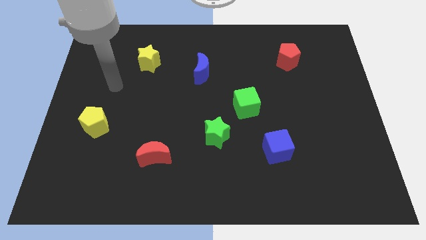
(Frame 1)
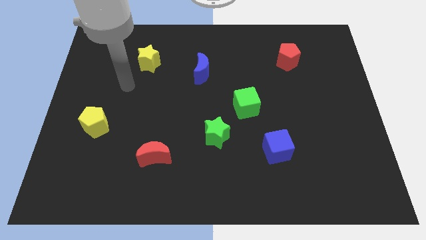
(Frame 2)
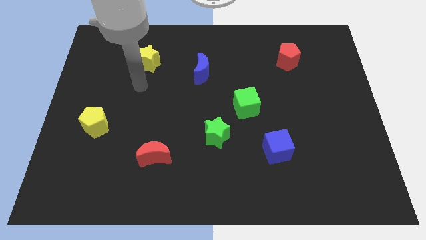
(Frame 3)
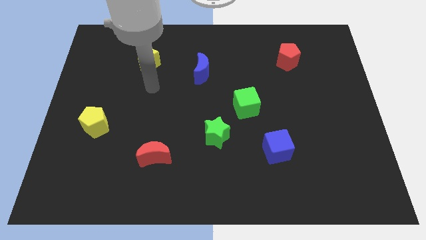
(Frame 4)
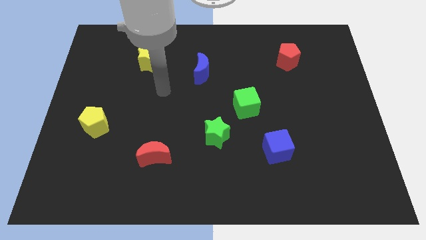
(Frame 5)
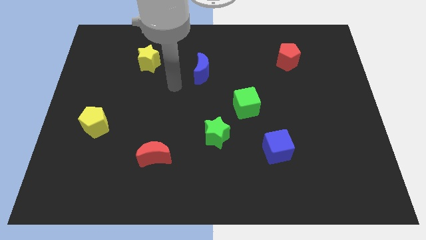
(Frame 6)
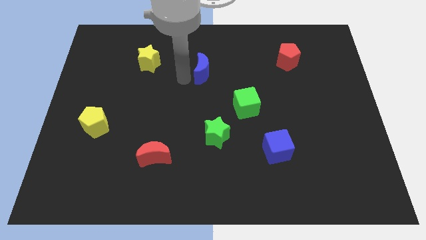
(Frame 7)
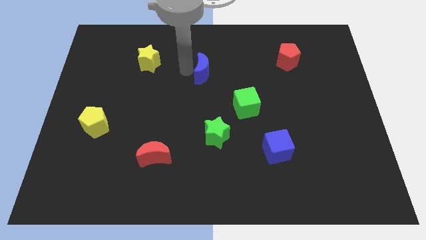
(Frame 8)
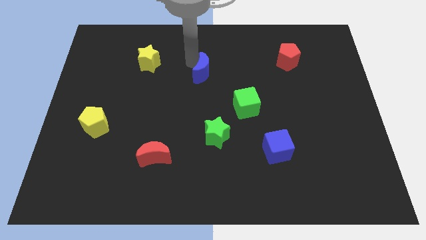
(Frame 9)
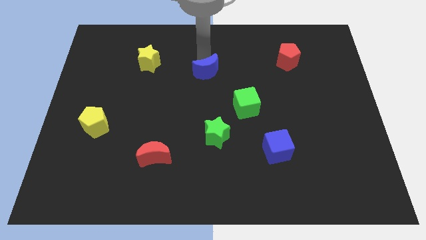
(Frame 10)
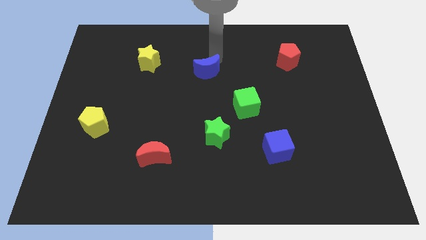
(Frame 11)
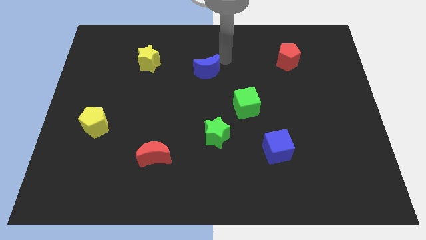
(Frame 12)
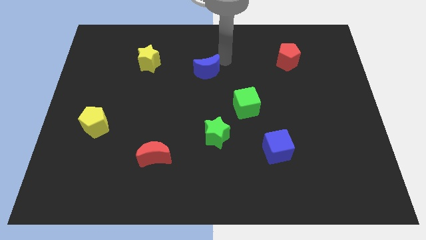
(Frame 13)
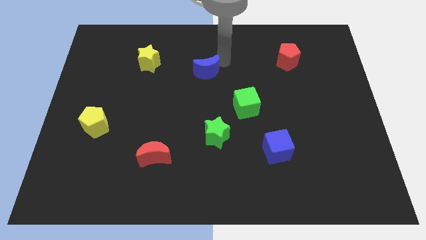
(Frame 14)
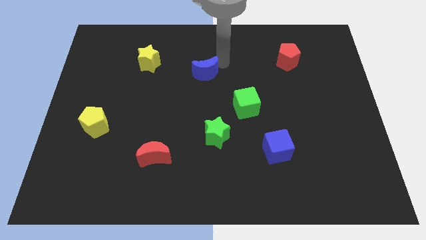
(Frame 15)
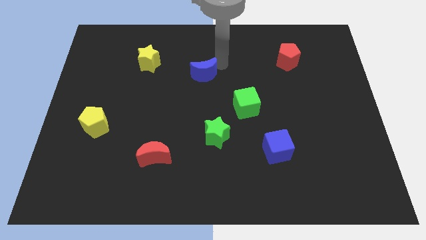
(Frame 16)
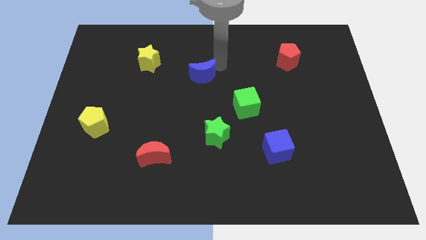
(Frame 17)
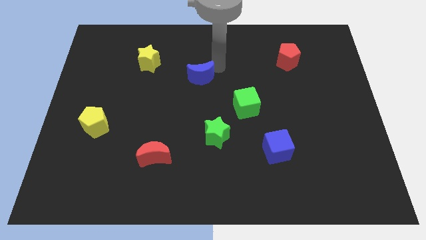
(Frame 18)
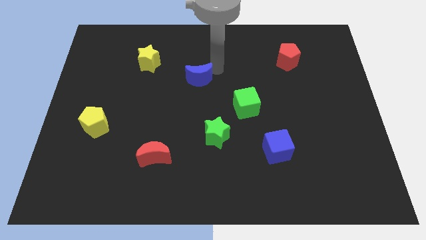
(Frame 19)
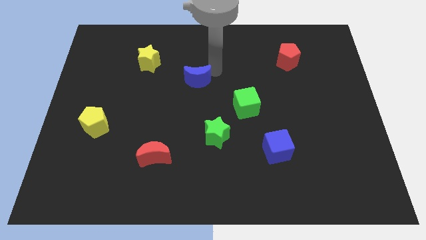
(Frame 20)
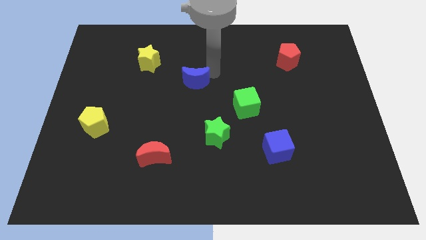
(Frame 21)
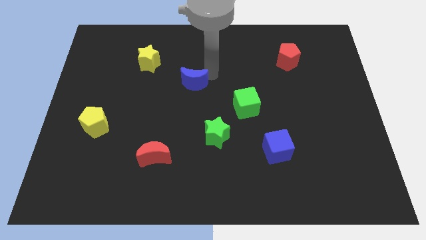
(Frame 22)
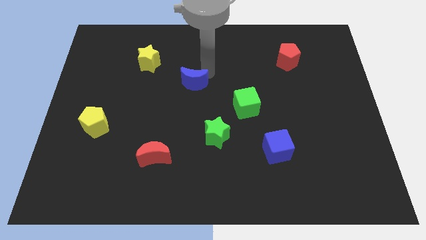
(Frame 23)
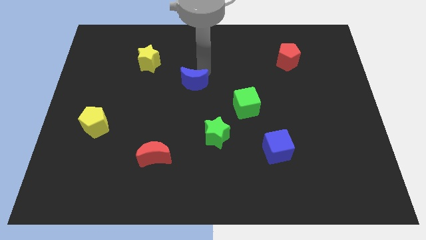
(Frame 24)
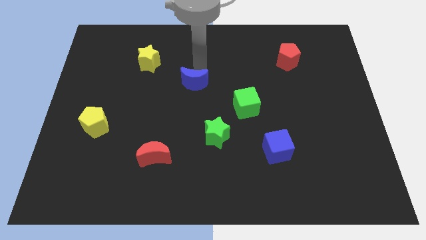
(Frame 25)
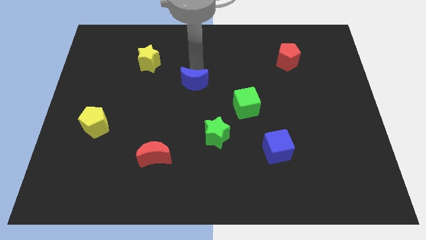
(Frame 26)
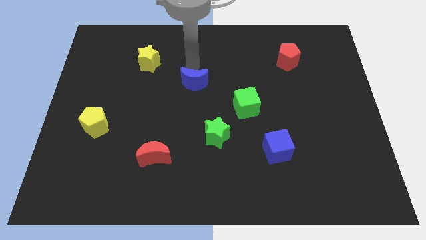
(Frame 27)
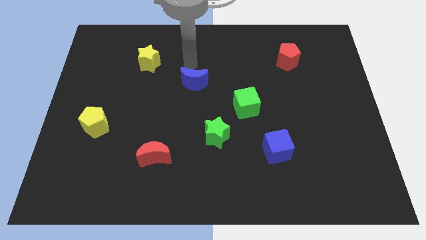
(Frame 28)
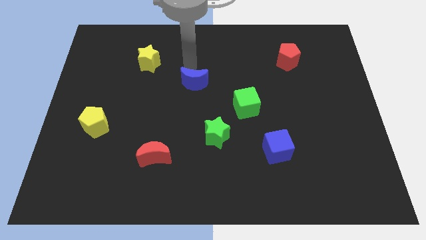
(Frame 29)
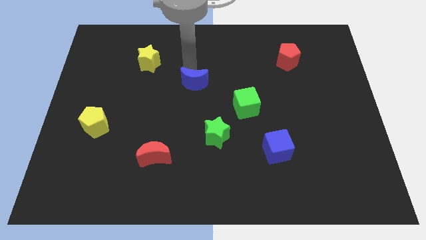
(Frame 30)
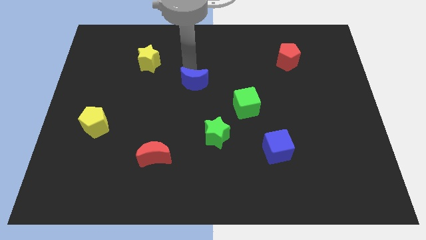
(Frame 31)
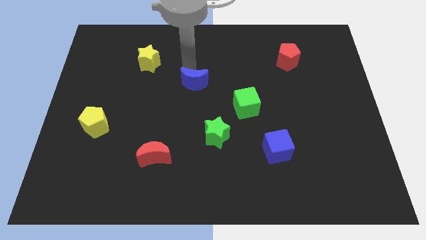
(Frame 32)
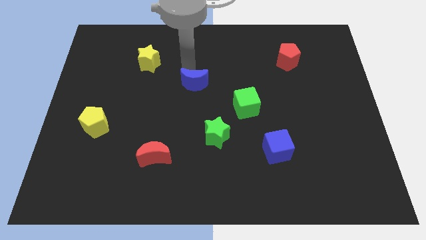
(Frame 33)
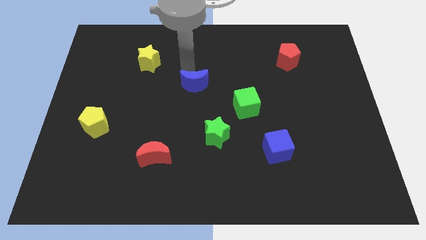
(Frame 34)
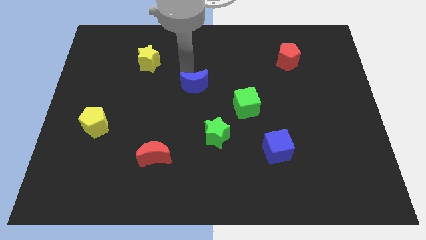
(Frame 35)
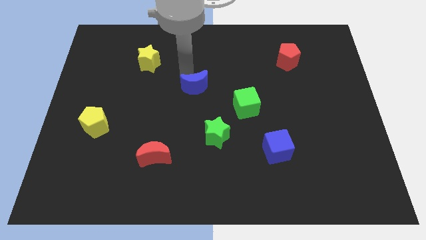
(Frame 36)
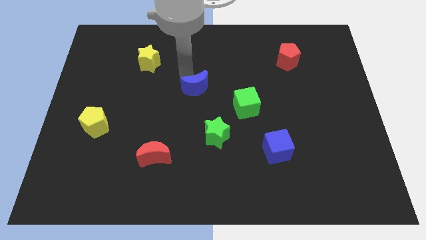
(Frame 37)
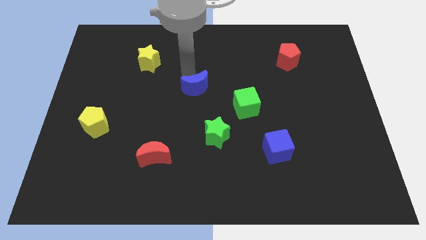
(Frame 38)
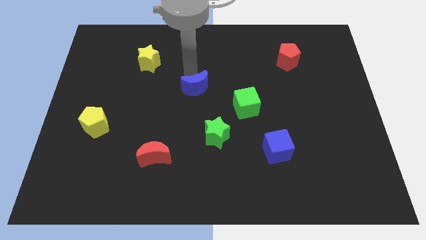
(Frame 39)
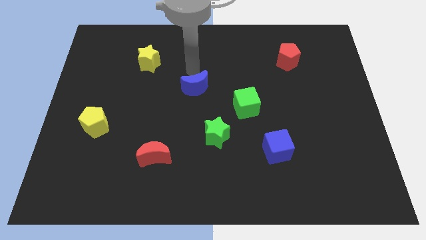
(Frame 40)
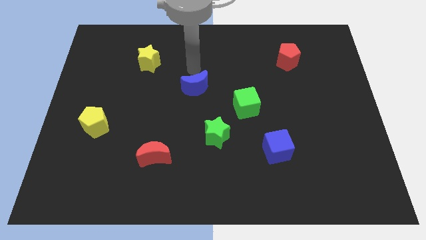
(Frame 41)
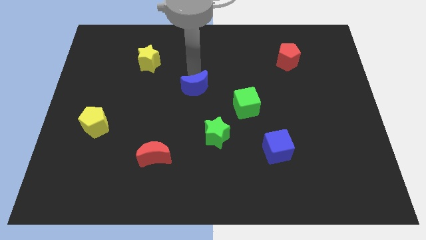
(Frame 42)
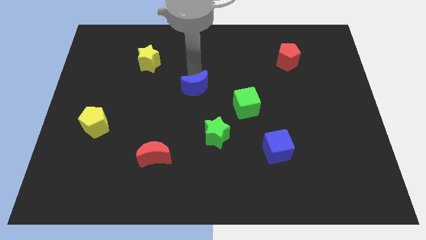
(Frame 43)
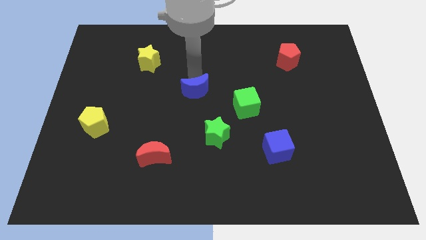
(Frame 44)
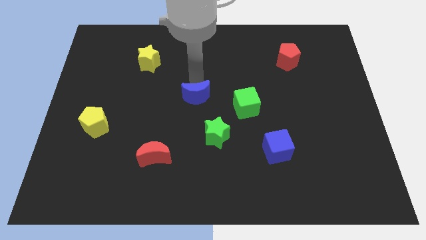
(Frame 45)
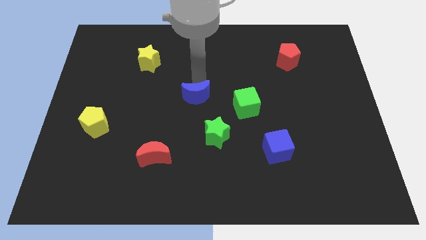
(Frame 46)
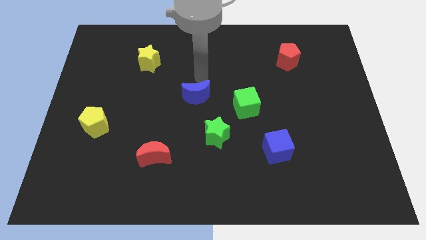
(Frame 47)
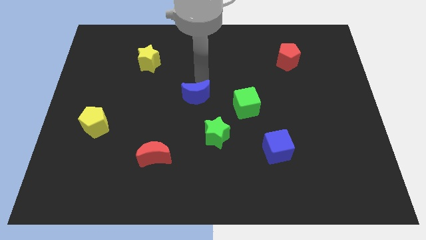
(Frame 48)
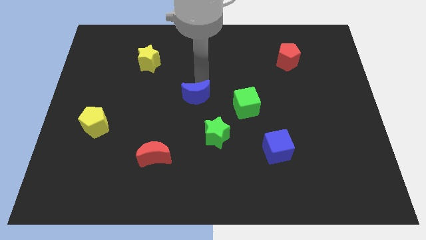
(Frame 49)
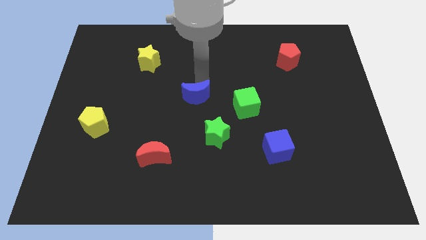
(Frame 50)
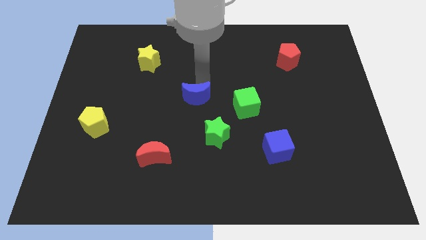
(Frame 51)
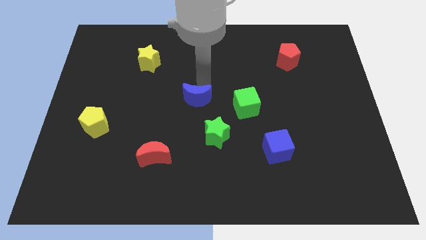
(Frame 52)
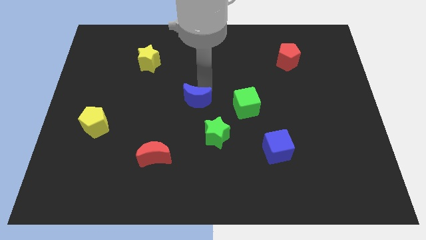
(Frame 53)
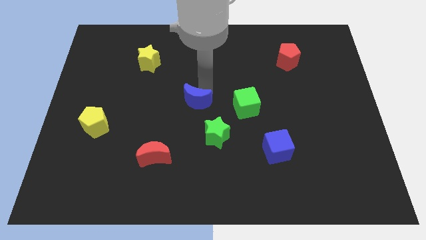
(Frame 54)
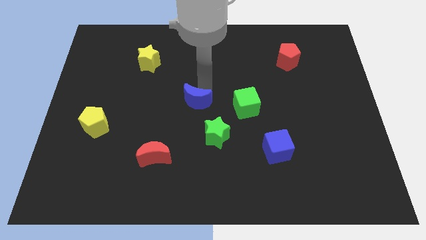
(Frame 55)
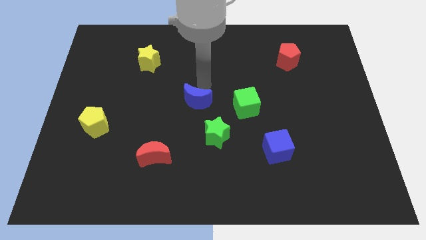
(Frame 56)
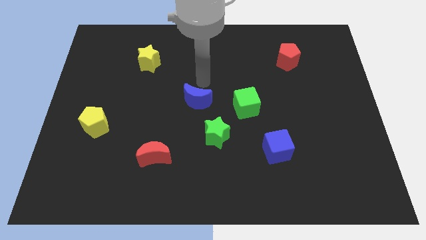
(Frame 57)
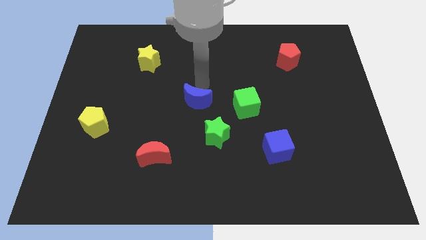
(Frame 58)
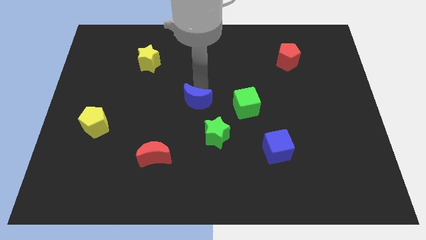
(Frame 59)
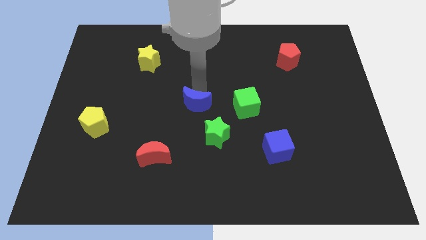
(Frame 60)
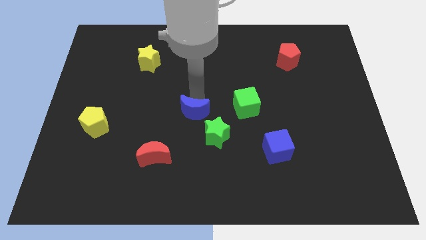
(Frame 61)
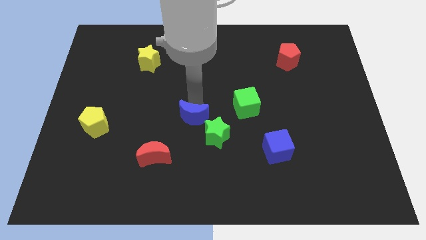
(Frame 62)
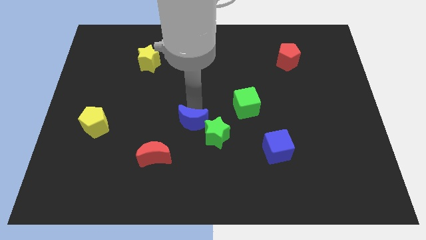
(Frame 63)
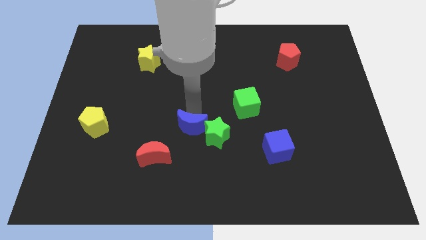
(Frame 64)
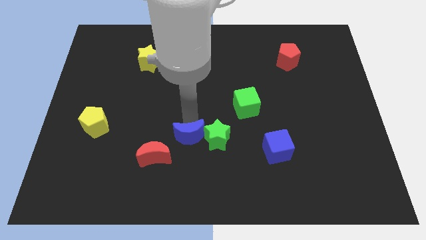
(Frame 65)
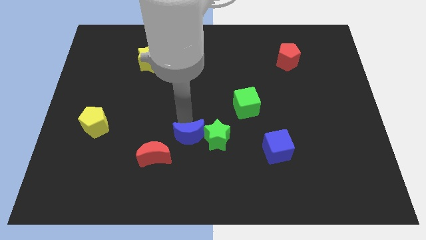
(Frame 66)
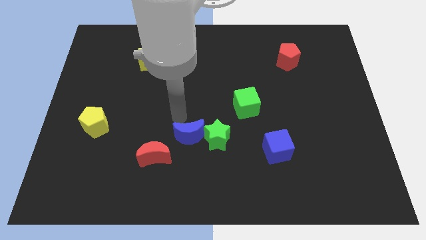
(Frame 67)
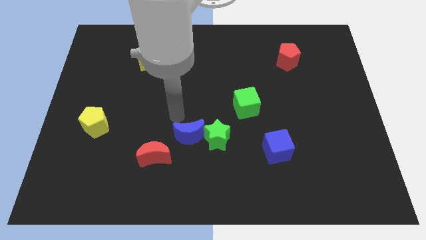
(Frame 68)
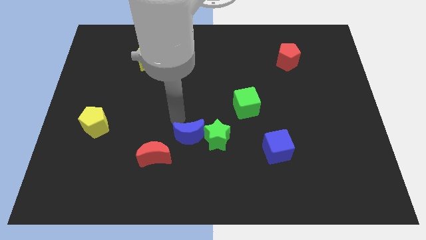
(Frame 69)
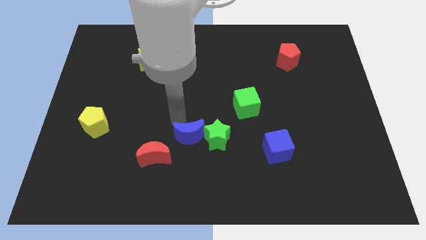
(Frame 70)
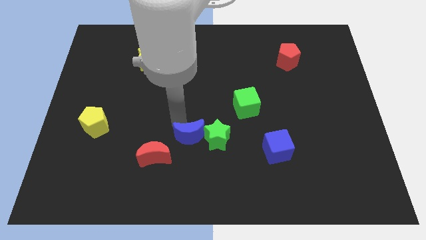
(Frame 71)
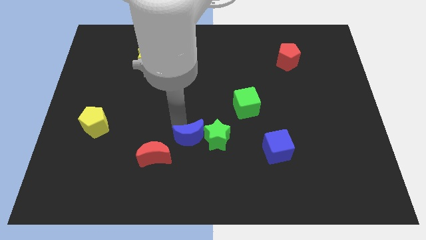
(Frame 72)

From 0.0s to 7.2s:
put the blue moon just right of the red moon

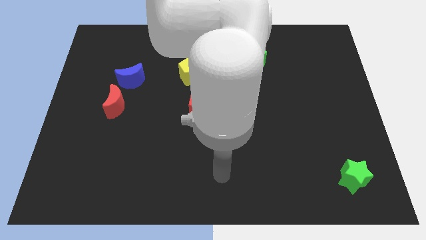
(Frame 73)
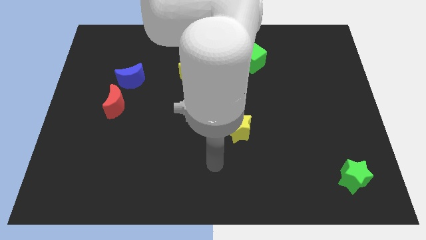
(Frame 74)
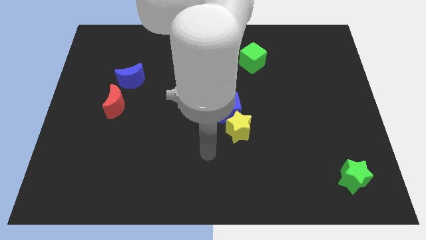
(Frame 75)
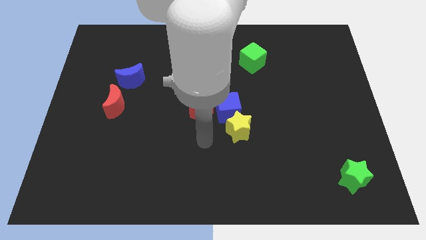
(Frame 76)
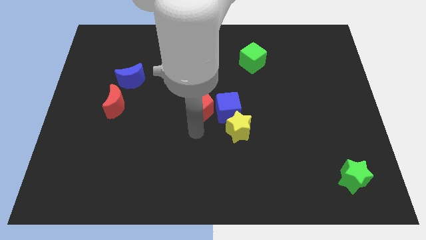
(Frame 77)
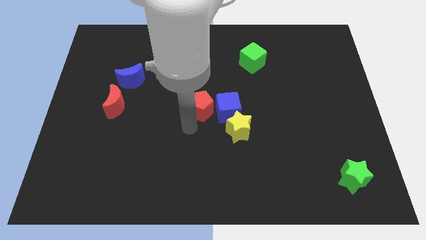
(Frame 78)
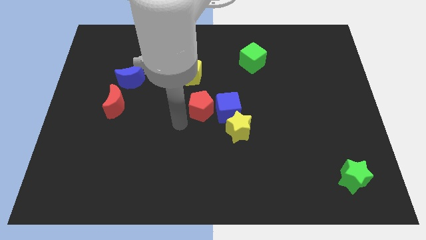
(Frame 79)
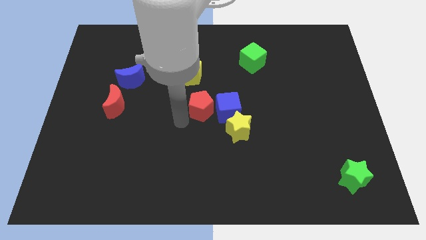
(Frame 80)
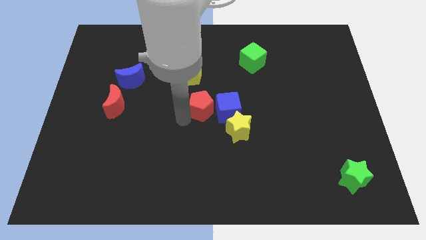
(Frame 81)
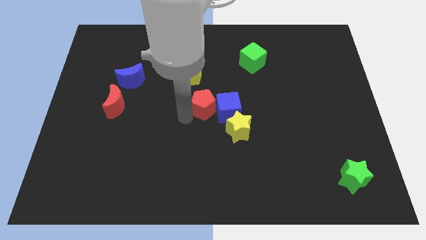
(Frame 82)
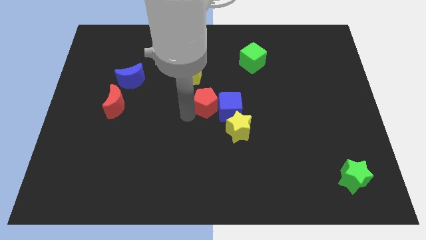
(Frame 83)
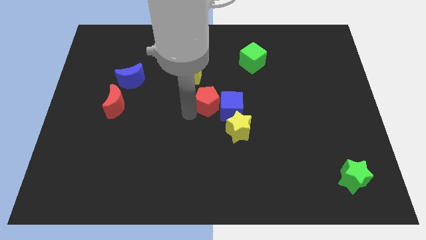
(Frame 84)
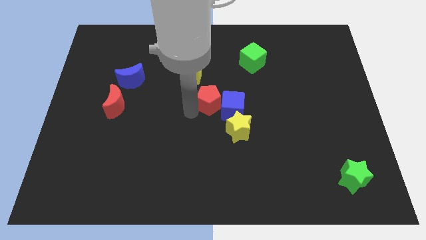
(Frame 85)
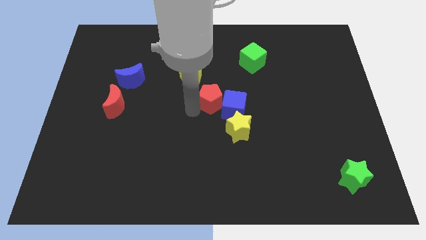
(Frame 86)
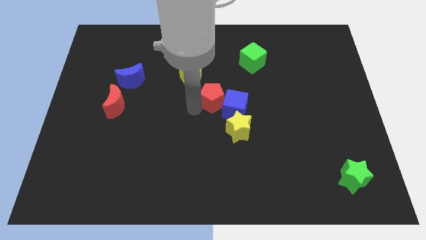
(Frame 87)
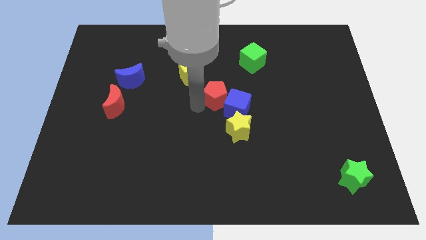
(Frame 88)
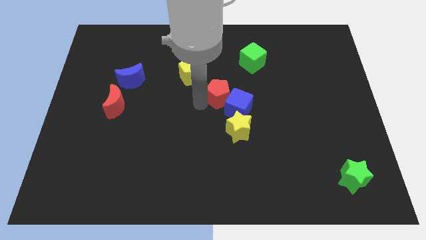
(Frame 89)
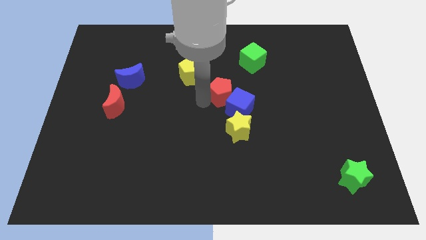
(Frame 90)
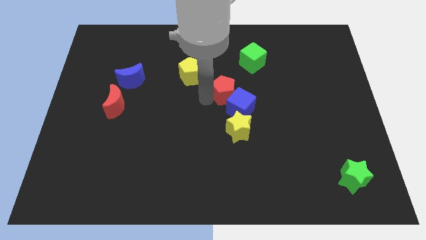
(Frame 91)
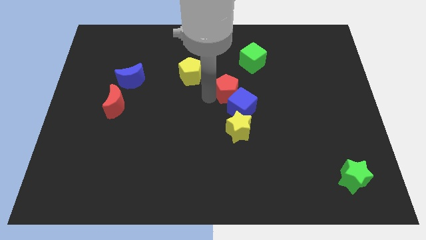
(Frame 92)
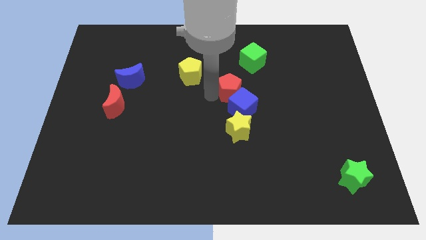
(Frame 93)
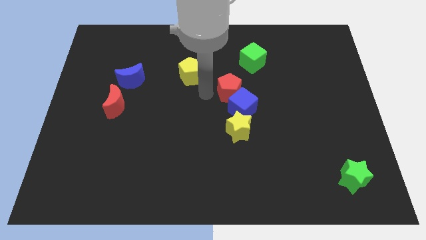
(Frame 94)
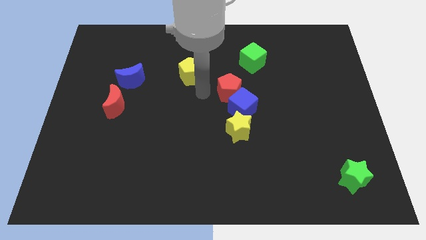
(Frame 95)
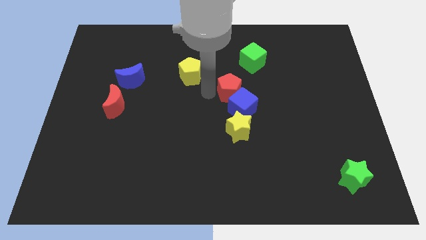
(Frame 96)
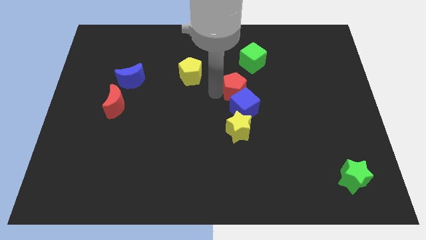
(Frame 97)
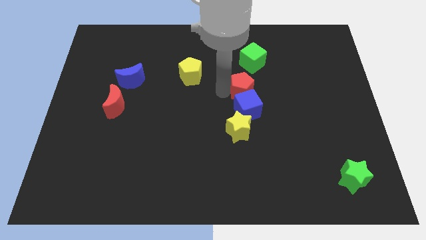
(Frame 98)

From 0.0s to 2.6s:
slide the red pentagon to the bottom side of the green cube
